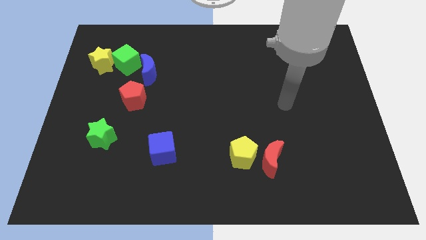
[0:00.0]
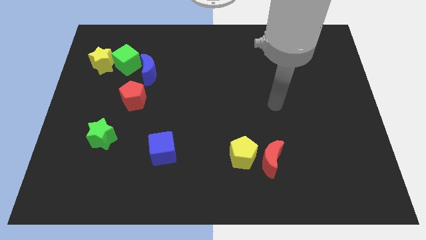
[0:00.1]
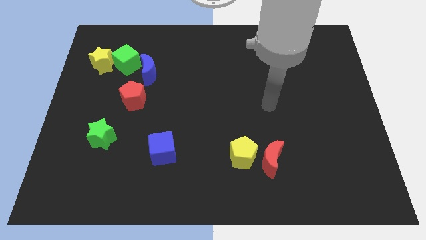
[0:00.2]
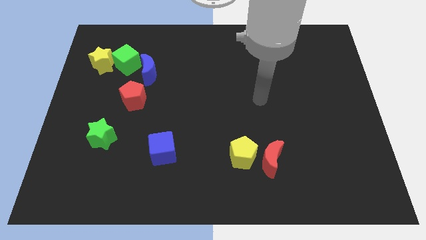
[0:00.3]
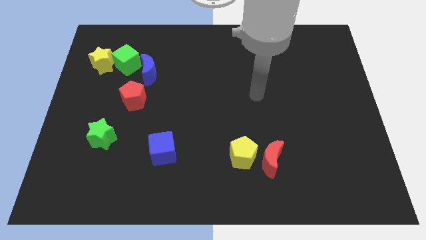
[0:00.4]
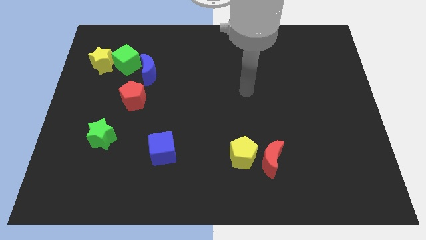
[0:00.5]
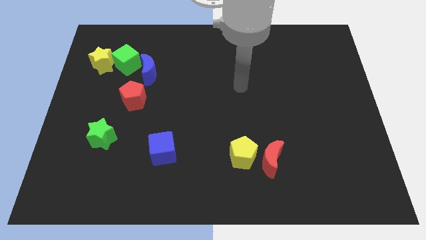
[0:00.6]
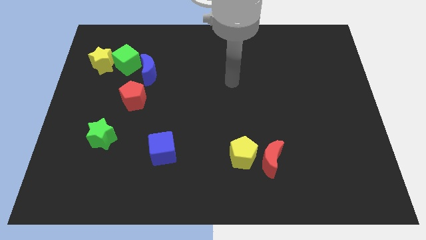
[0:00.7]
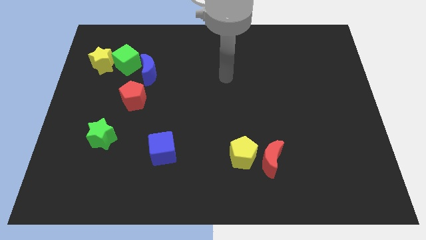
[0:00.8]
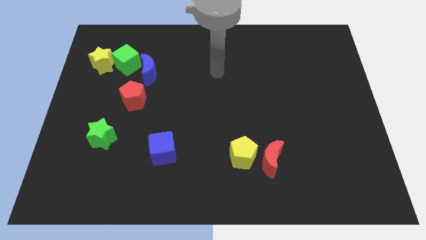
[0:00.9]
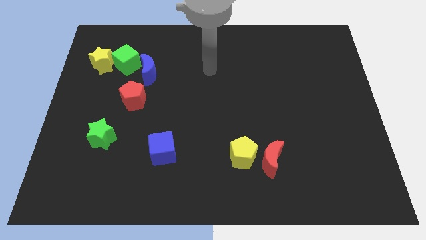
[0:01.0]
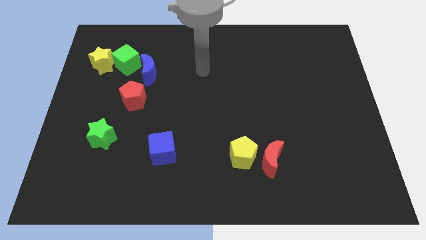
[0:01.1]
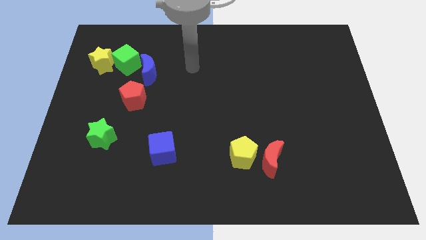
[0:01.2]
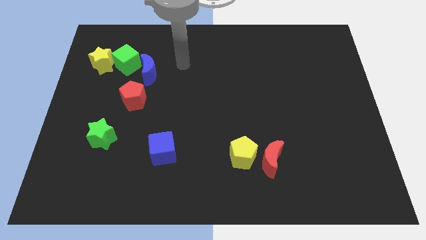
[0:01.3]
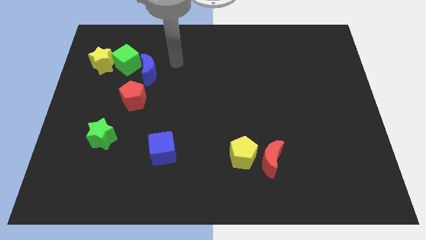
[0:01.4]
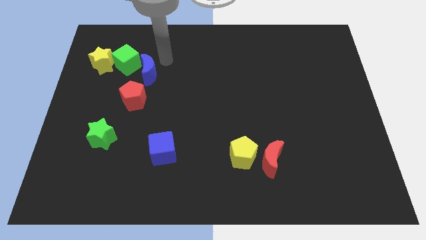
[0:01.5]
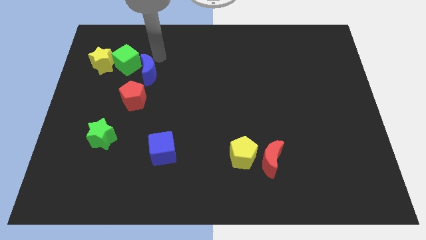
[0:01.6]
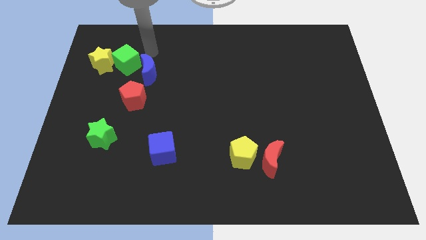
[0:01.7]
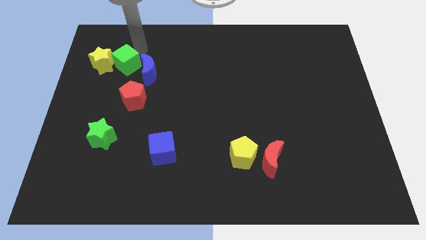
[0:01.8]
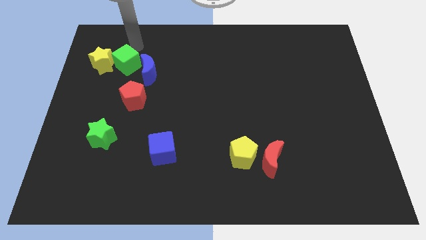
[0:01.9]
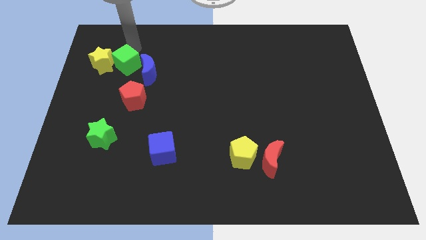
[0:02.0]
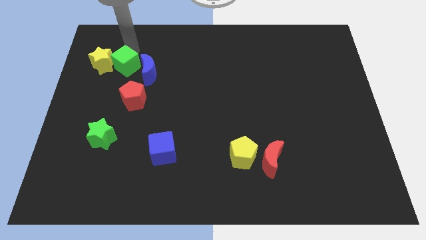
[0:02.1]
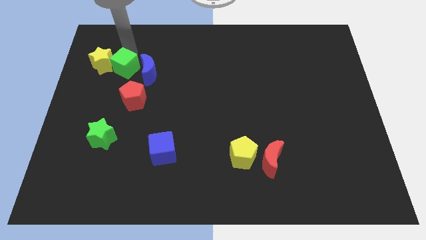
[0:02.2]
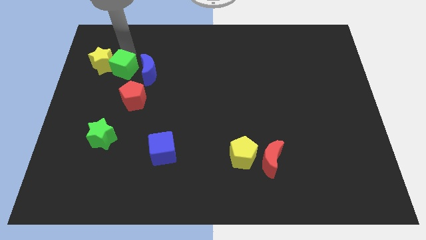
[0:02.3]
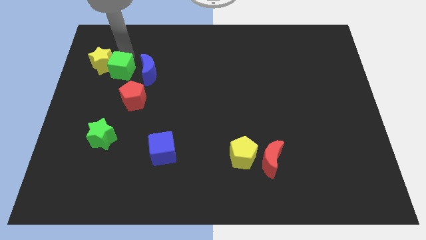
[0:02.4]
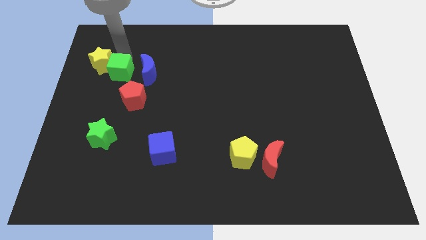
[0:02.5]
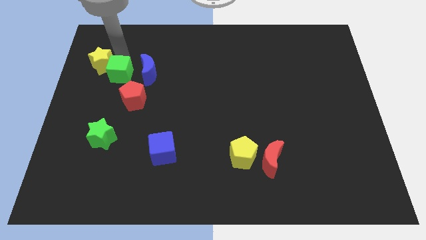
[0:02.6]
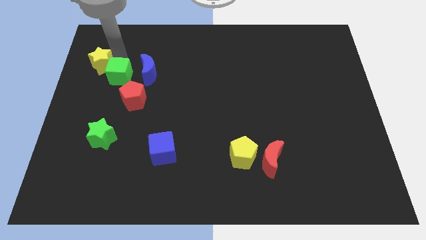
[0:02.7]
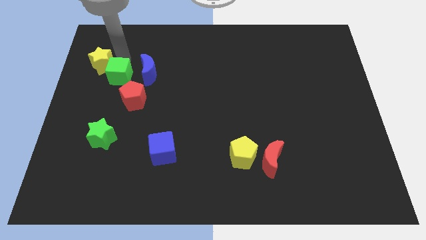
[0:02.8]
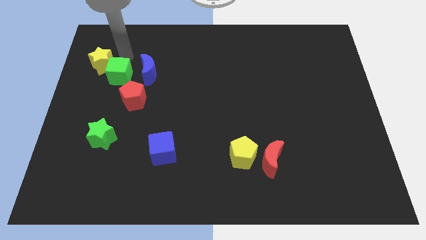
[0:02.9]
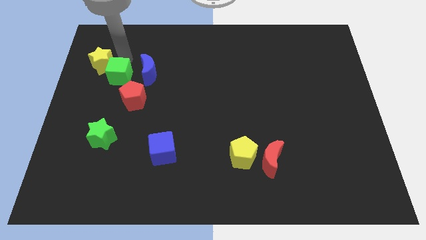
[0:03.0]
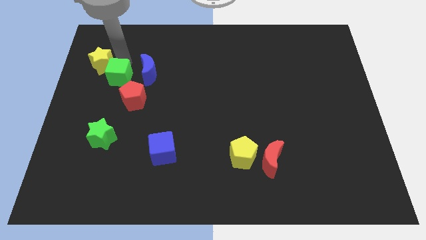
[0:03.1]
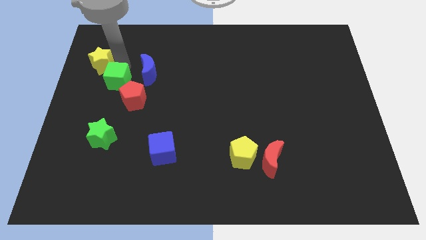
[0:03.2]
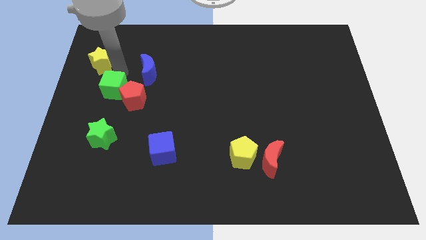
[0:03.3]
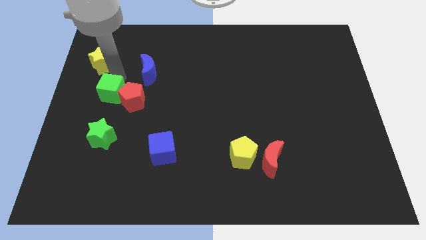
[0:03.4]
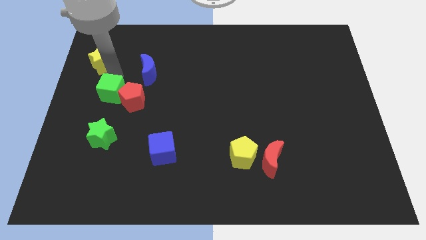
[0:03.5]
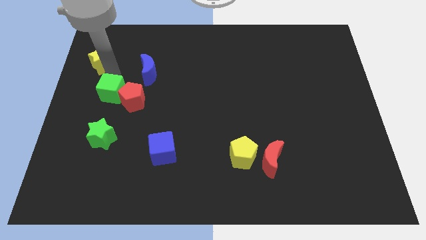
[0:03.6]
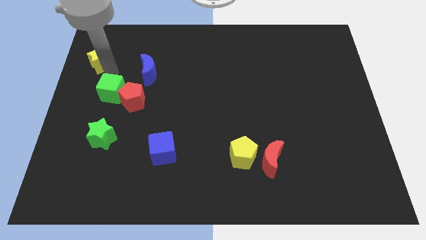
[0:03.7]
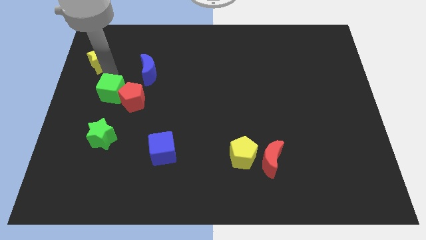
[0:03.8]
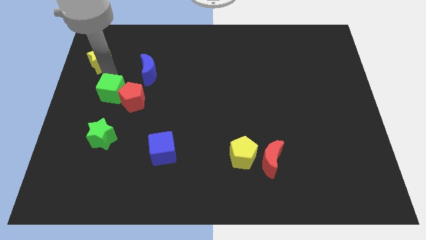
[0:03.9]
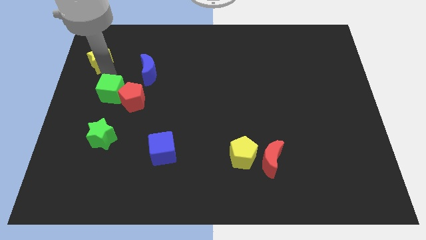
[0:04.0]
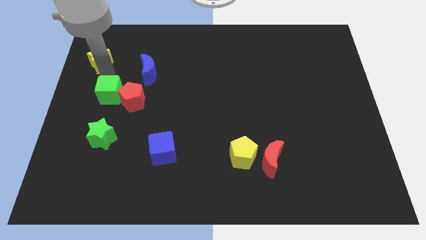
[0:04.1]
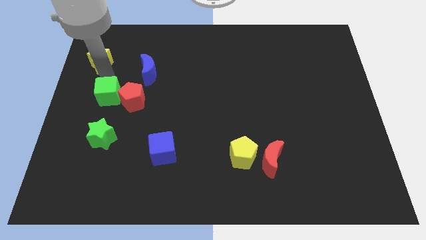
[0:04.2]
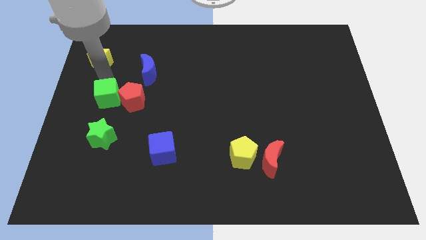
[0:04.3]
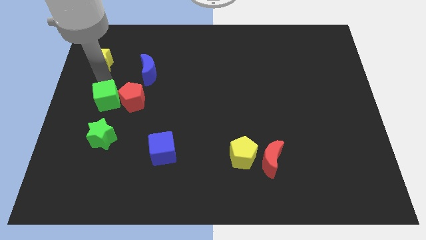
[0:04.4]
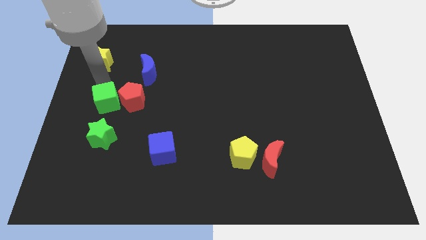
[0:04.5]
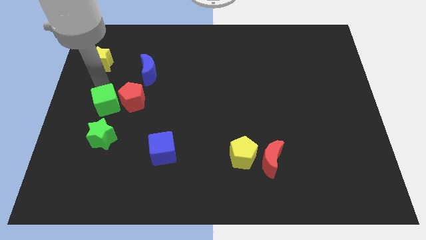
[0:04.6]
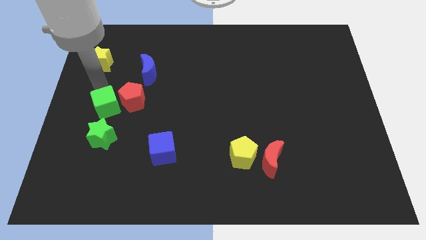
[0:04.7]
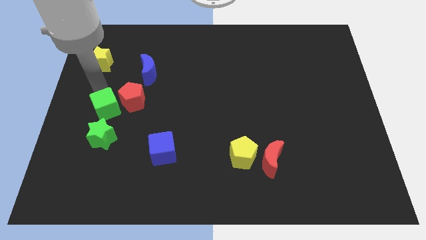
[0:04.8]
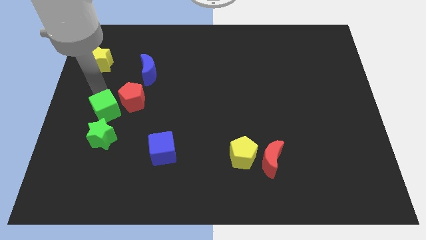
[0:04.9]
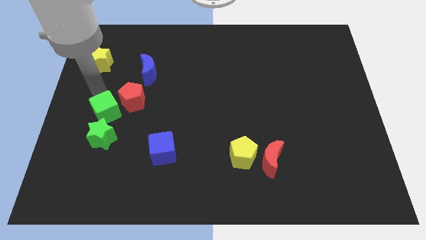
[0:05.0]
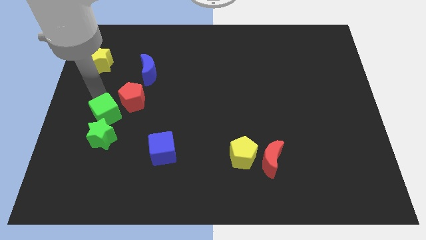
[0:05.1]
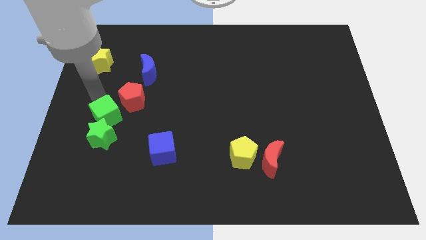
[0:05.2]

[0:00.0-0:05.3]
put the green cube towards the green star

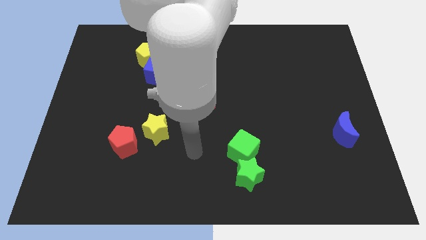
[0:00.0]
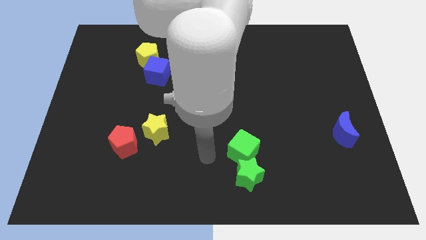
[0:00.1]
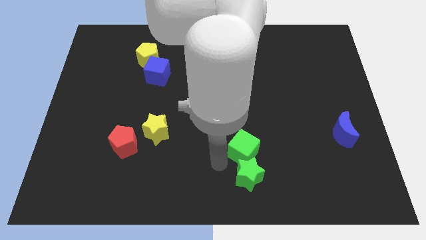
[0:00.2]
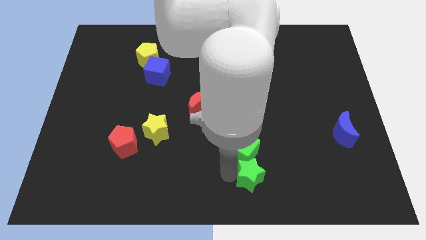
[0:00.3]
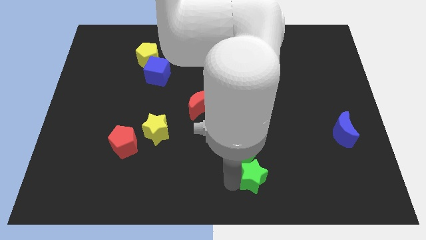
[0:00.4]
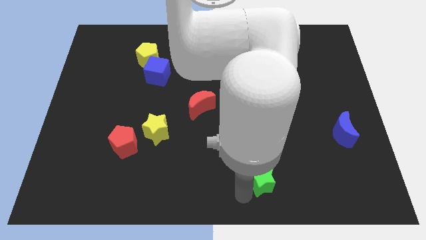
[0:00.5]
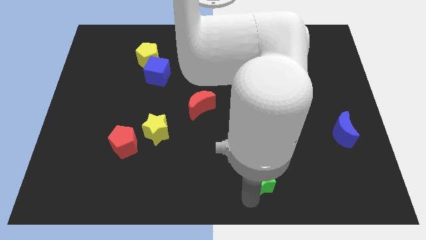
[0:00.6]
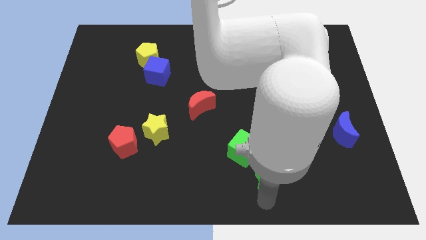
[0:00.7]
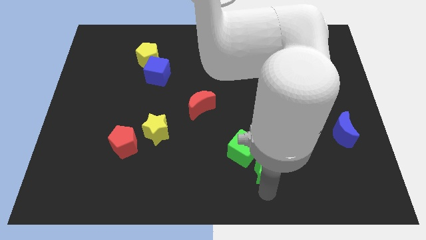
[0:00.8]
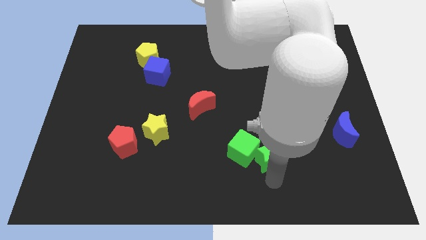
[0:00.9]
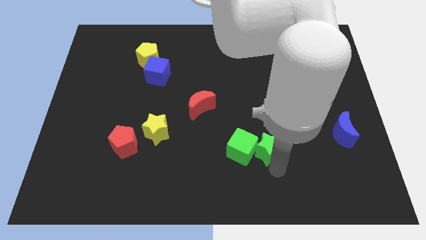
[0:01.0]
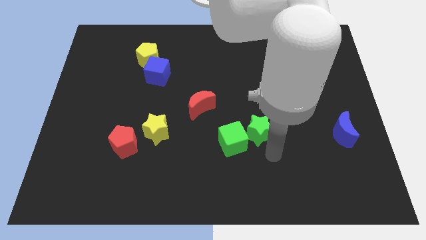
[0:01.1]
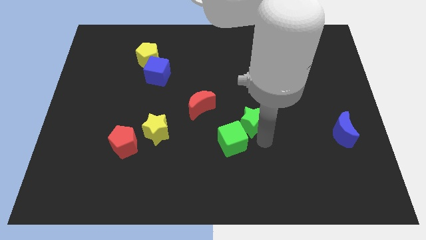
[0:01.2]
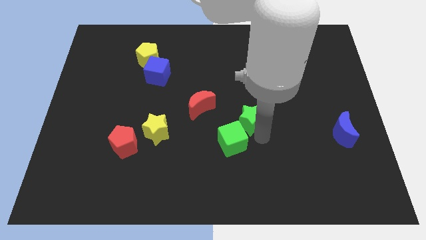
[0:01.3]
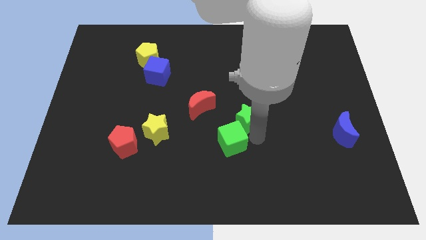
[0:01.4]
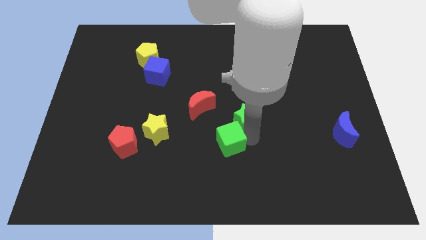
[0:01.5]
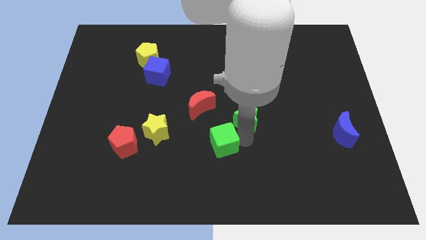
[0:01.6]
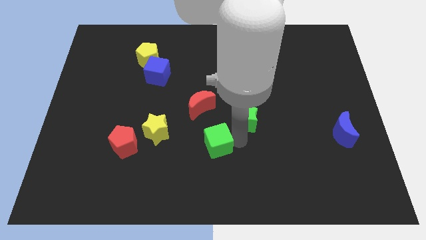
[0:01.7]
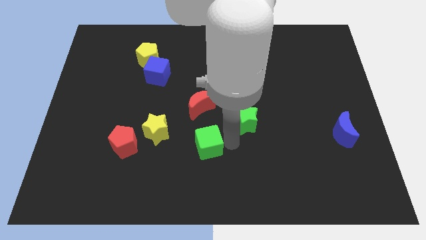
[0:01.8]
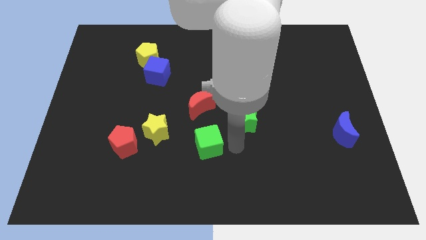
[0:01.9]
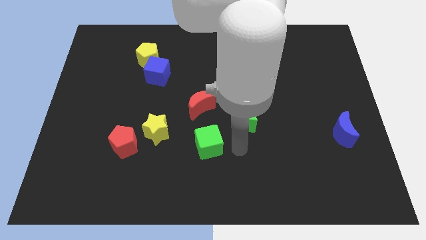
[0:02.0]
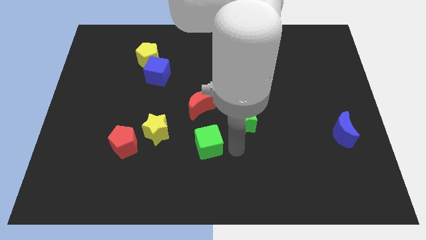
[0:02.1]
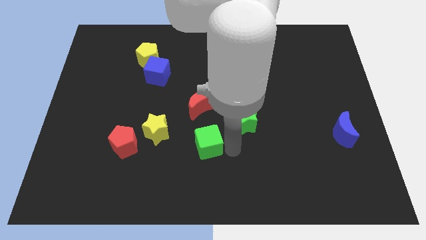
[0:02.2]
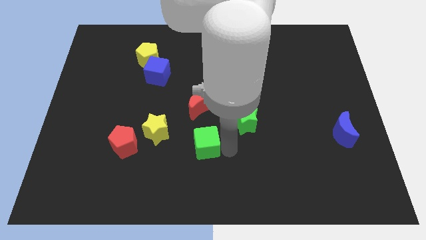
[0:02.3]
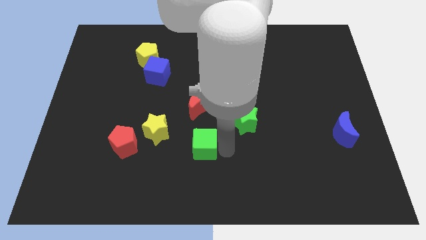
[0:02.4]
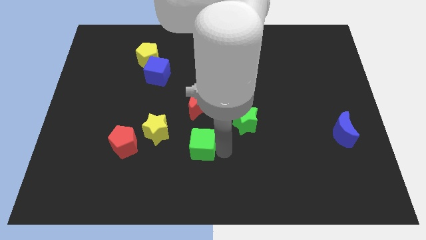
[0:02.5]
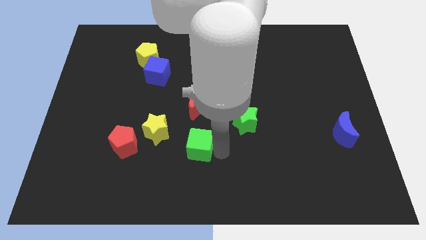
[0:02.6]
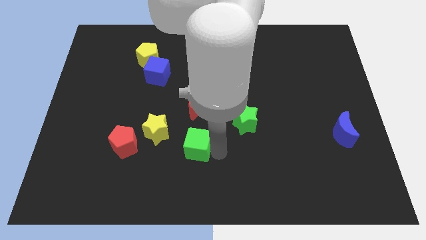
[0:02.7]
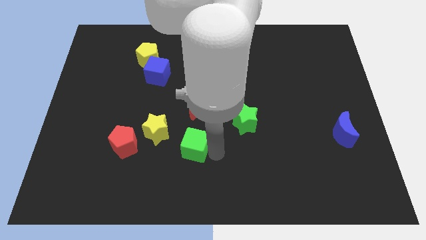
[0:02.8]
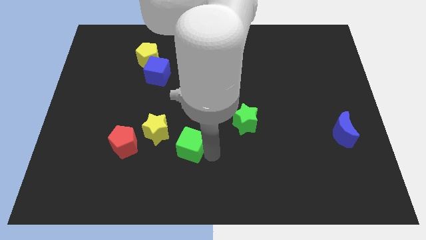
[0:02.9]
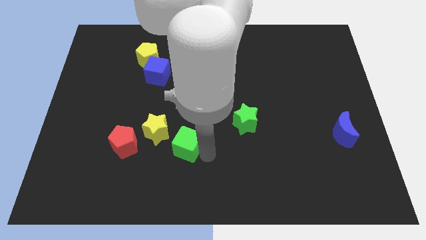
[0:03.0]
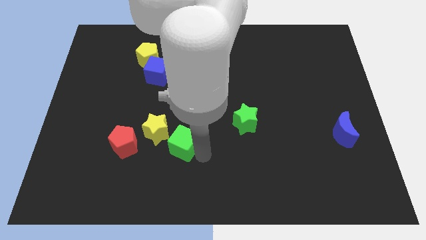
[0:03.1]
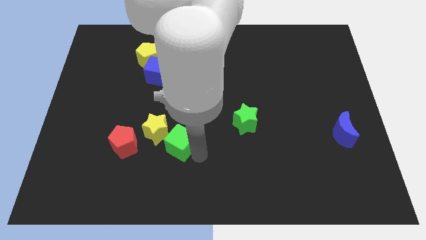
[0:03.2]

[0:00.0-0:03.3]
put the green cube next to the yellow star
